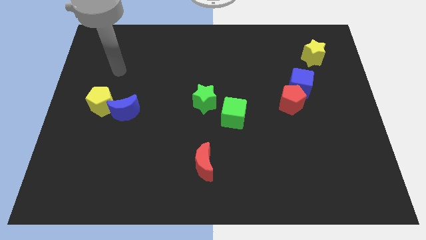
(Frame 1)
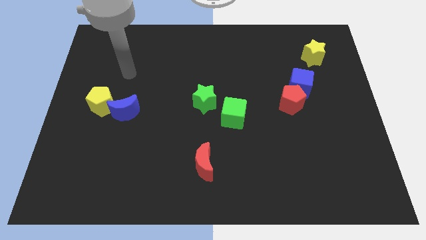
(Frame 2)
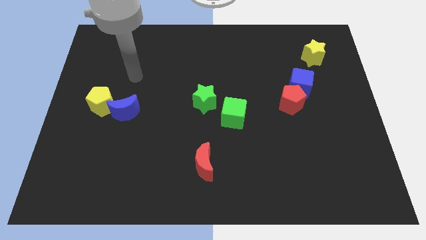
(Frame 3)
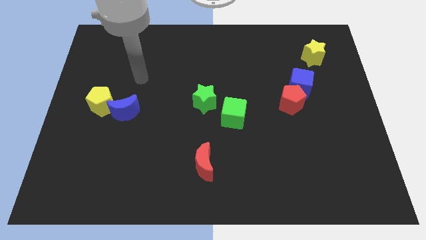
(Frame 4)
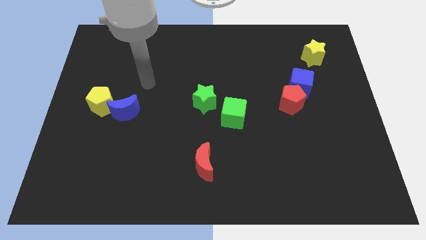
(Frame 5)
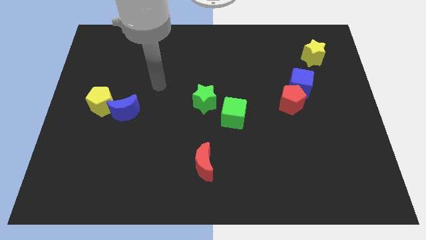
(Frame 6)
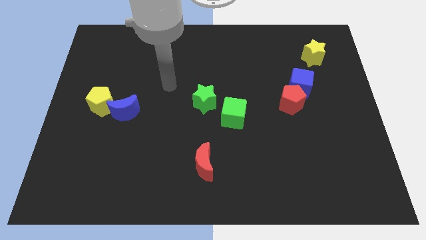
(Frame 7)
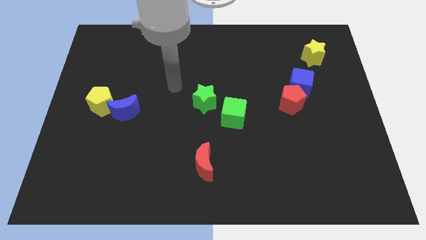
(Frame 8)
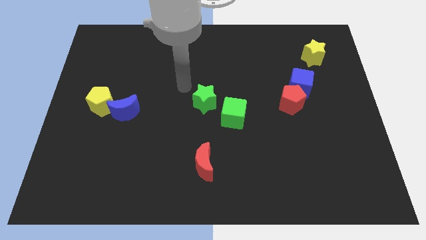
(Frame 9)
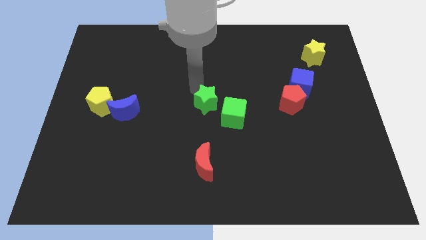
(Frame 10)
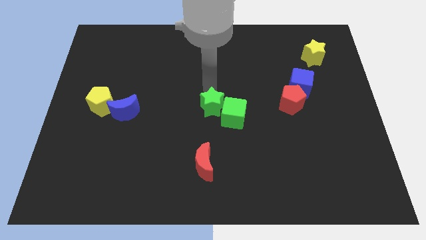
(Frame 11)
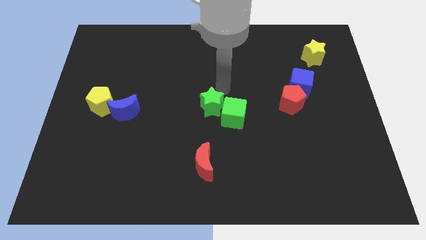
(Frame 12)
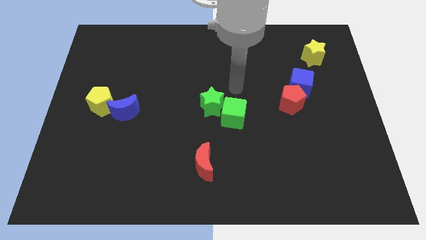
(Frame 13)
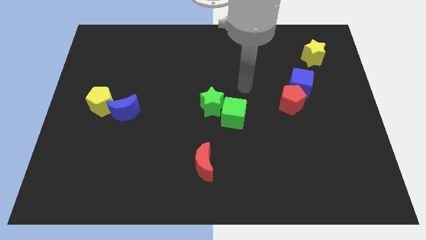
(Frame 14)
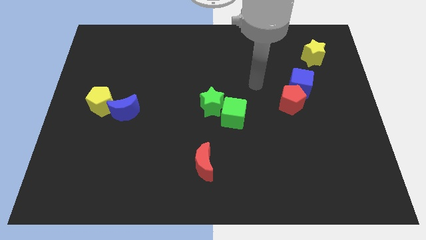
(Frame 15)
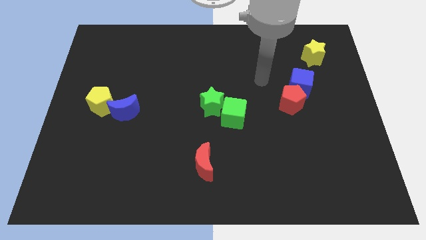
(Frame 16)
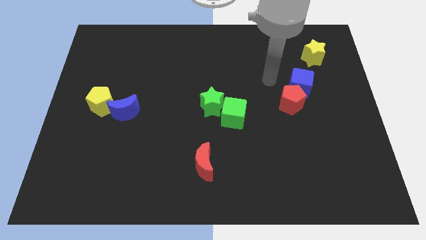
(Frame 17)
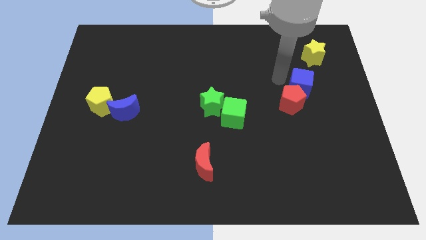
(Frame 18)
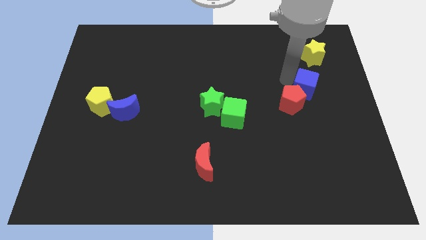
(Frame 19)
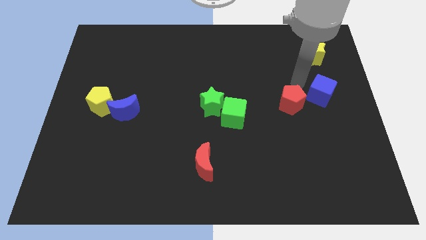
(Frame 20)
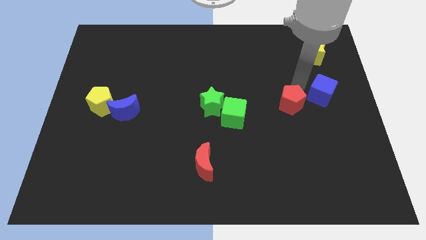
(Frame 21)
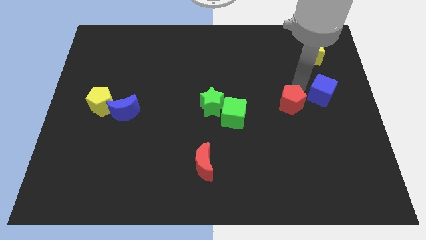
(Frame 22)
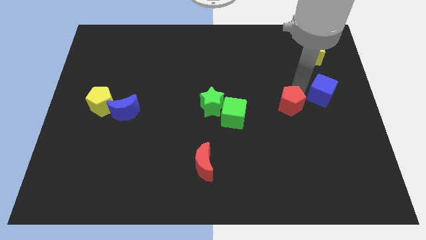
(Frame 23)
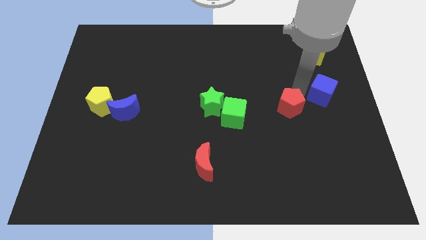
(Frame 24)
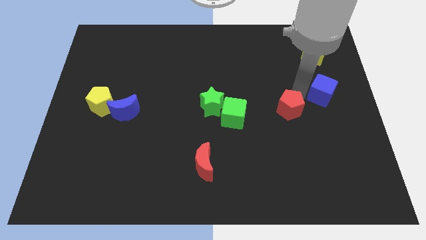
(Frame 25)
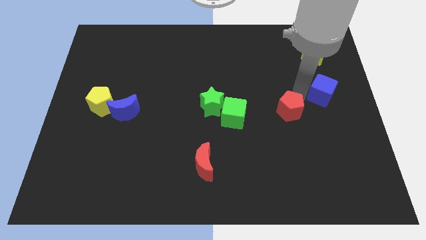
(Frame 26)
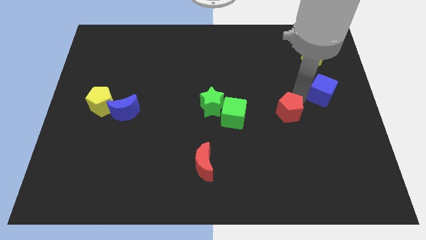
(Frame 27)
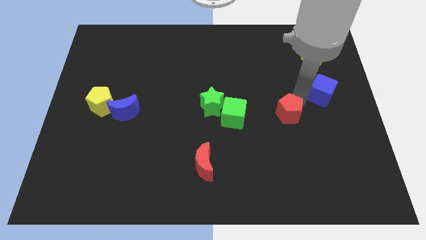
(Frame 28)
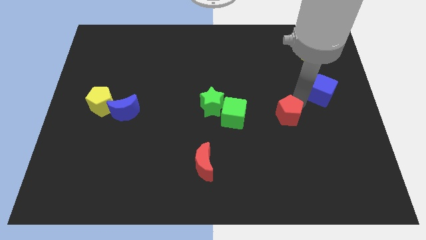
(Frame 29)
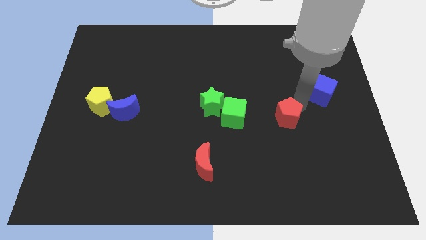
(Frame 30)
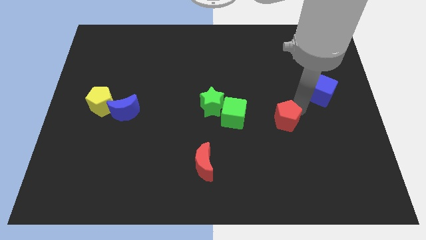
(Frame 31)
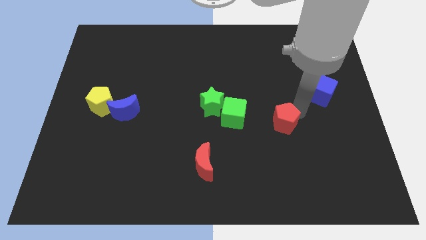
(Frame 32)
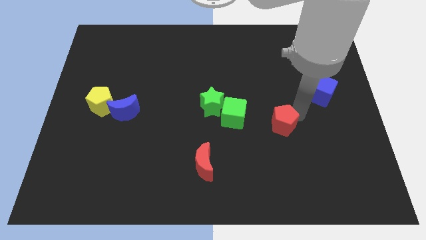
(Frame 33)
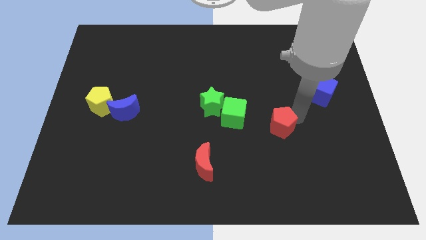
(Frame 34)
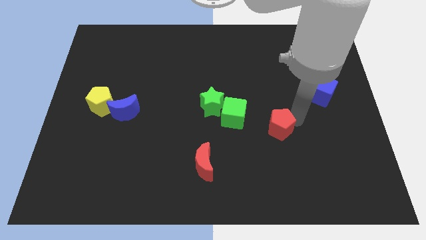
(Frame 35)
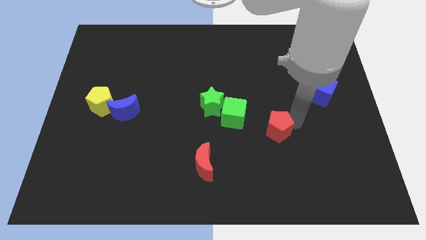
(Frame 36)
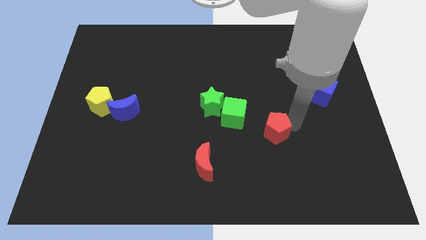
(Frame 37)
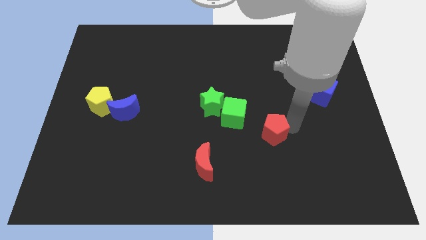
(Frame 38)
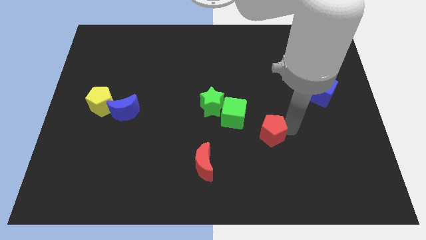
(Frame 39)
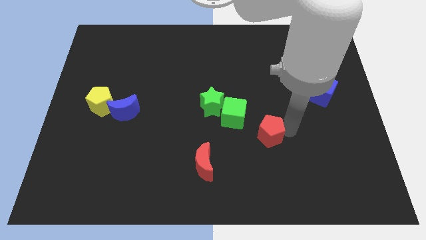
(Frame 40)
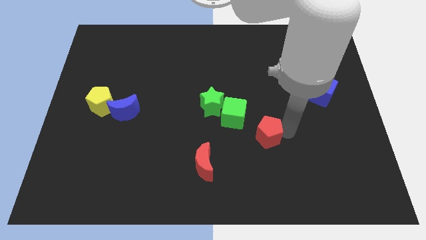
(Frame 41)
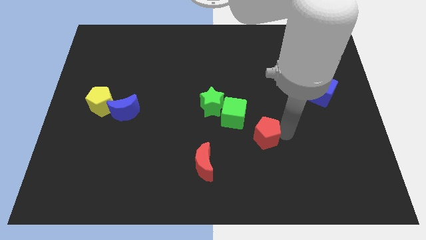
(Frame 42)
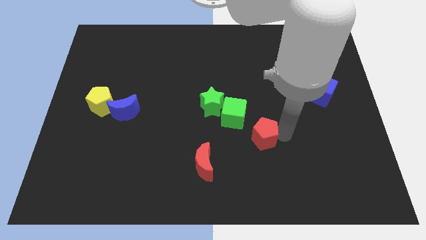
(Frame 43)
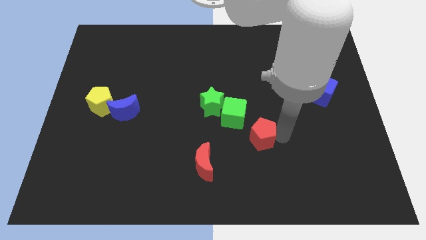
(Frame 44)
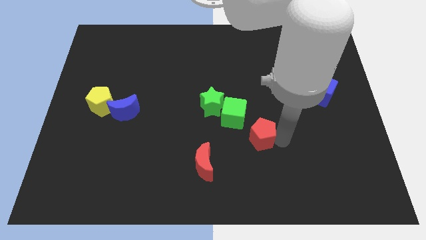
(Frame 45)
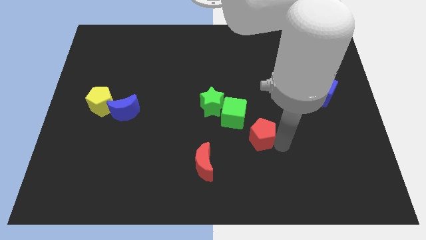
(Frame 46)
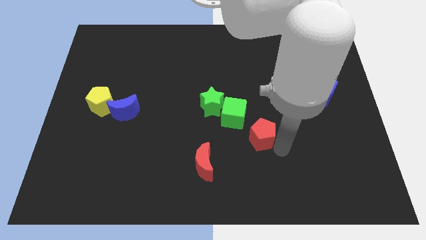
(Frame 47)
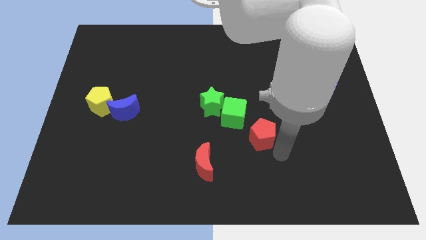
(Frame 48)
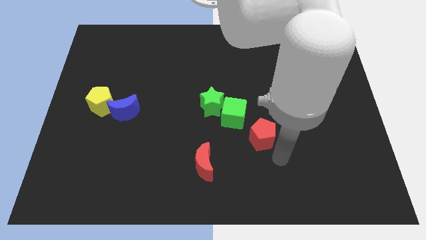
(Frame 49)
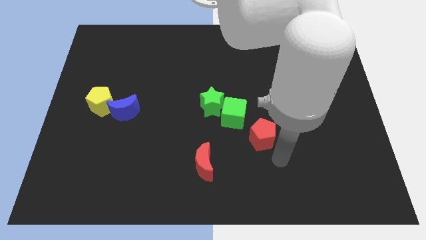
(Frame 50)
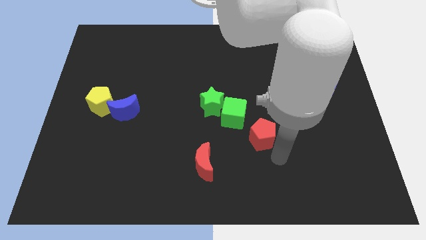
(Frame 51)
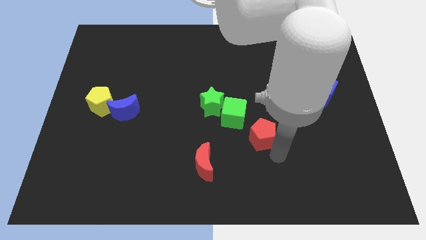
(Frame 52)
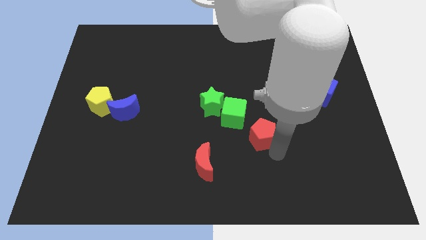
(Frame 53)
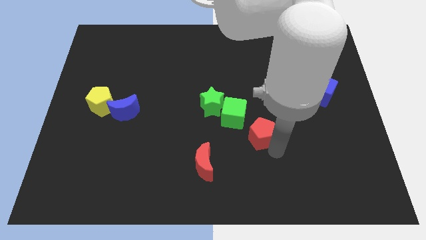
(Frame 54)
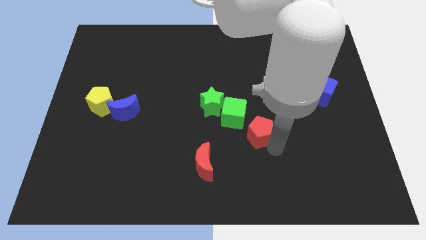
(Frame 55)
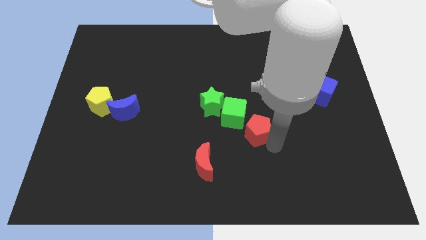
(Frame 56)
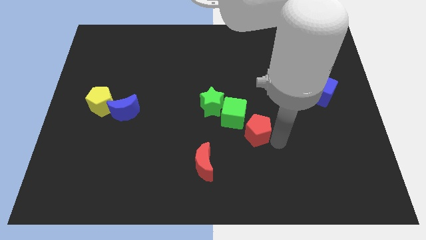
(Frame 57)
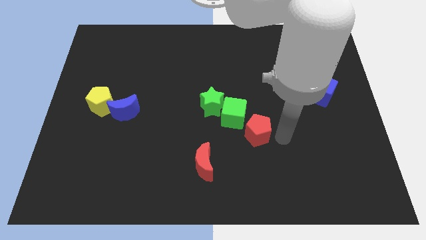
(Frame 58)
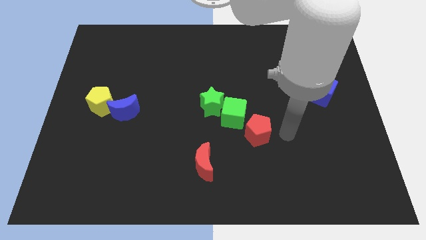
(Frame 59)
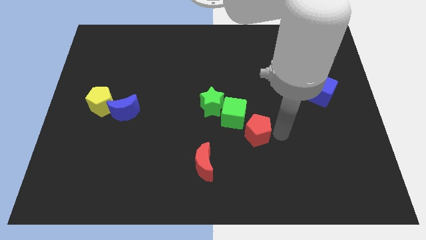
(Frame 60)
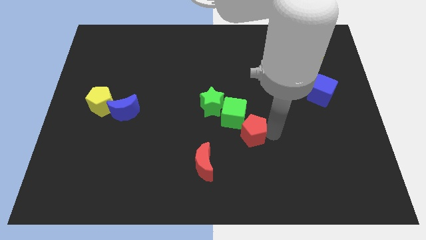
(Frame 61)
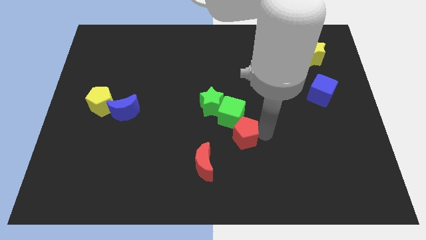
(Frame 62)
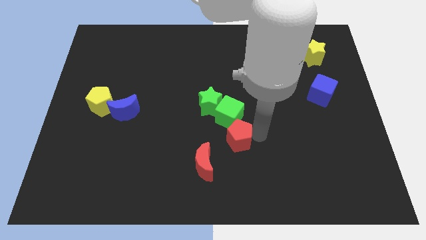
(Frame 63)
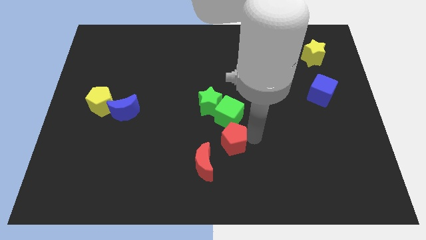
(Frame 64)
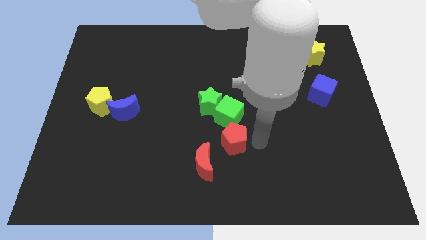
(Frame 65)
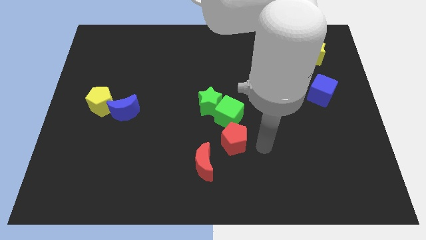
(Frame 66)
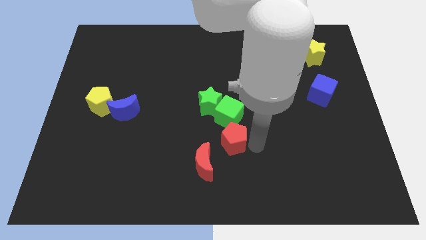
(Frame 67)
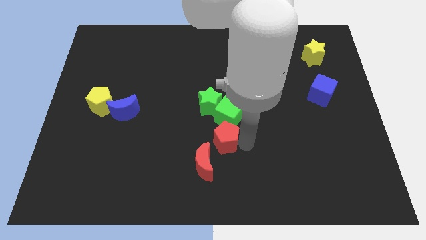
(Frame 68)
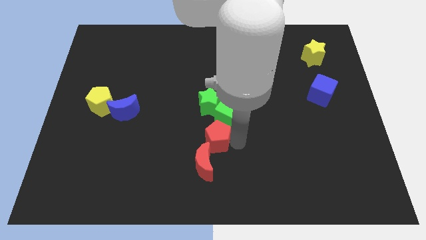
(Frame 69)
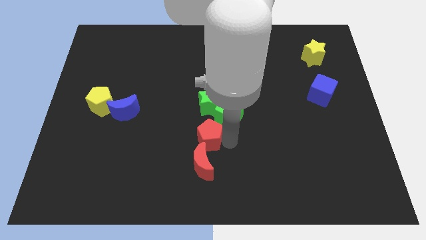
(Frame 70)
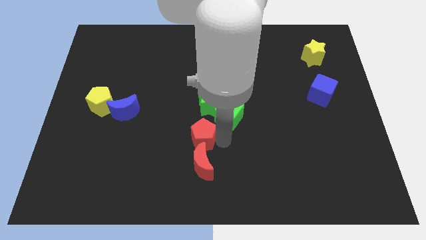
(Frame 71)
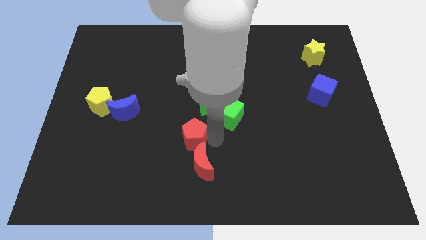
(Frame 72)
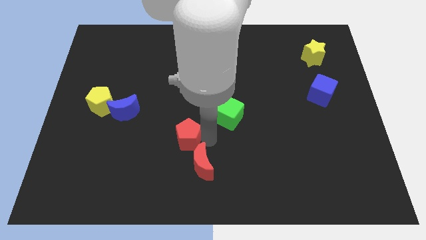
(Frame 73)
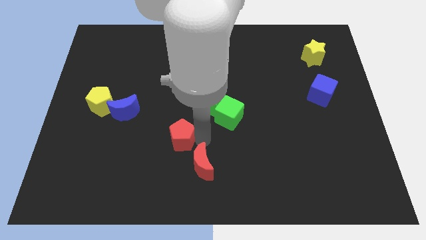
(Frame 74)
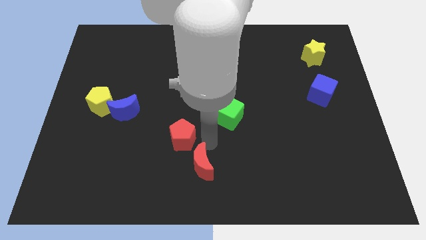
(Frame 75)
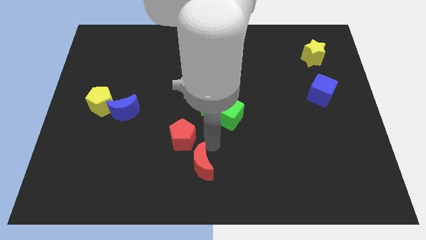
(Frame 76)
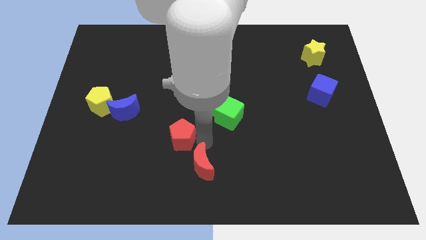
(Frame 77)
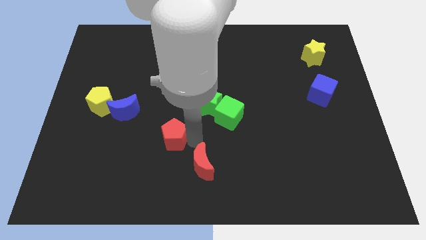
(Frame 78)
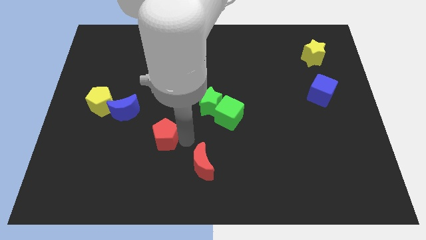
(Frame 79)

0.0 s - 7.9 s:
push the red pentagon to the bottom right of the blue moon
